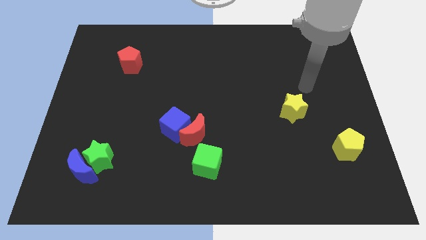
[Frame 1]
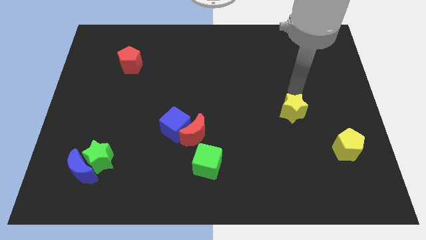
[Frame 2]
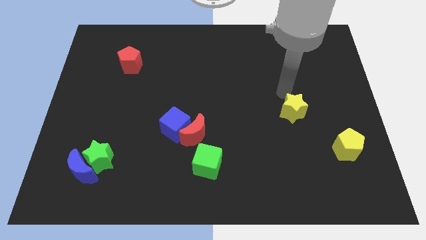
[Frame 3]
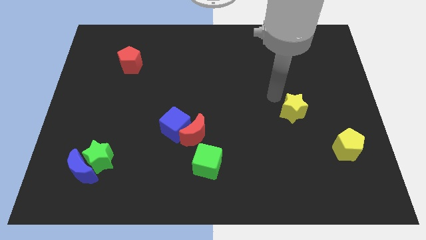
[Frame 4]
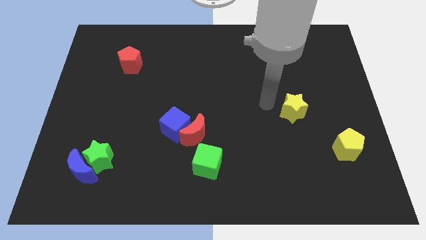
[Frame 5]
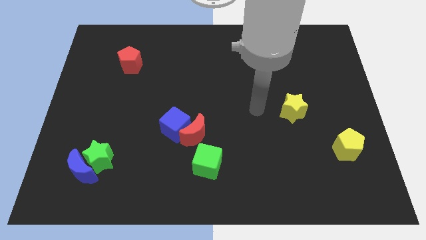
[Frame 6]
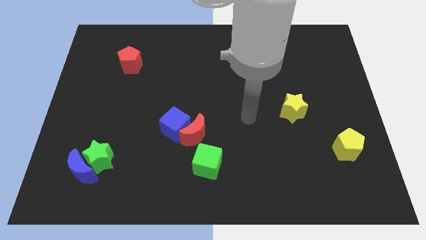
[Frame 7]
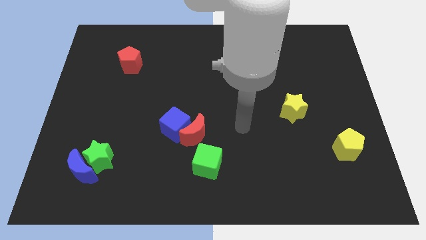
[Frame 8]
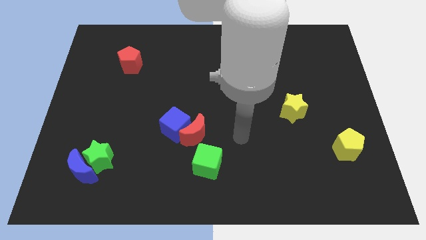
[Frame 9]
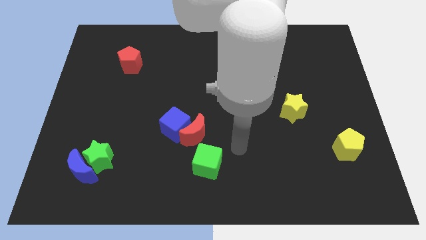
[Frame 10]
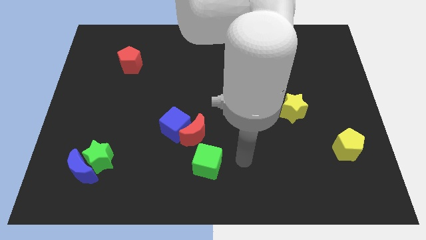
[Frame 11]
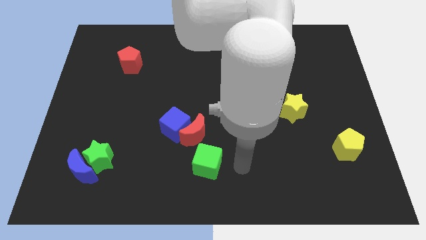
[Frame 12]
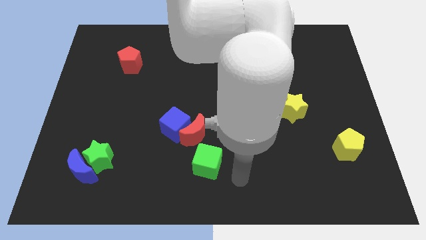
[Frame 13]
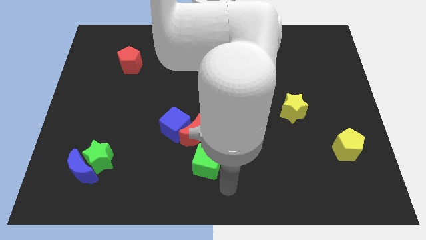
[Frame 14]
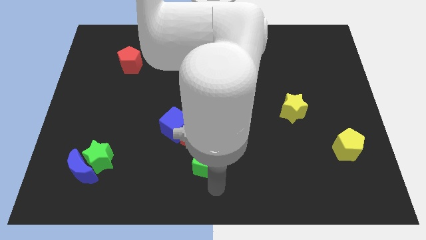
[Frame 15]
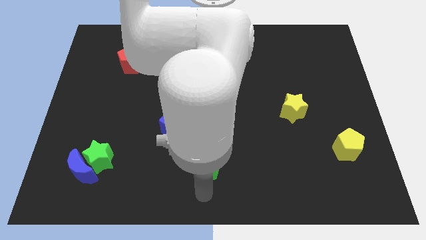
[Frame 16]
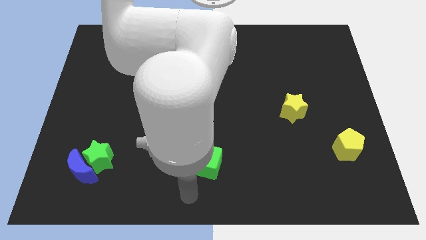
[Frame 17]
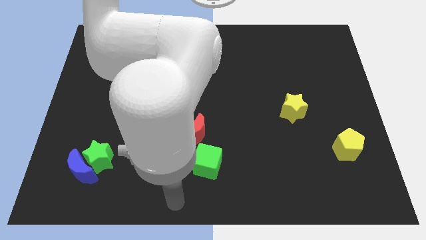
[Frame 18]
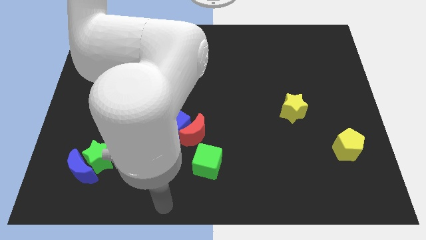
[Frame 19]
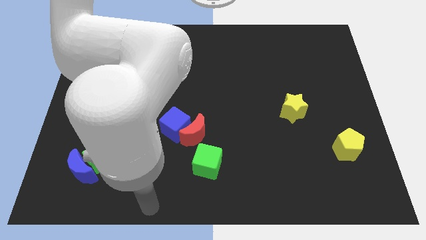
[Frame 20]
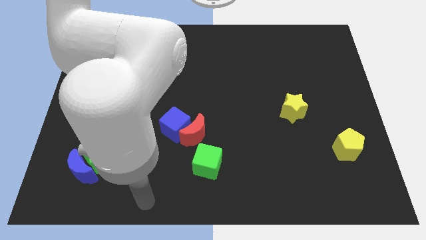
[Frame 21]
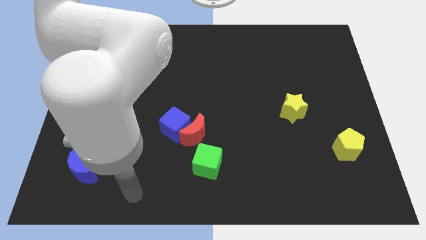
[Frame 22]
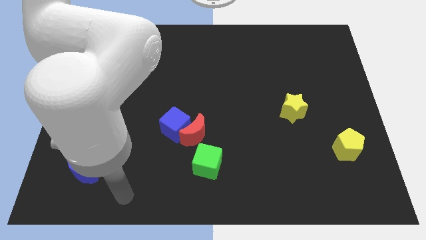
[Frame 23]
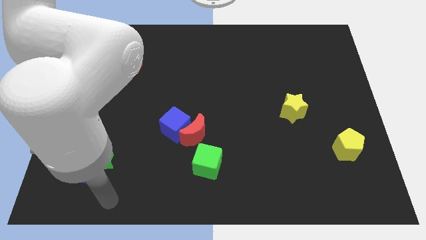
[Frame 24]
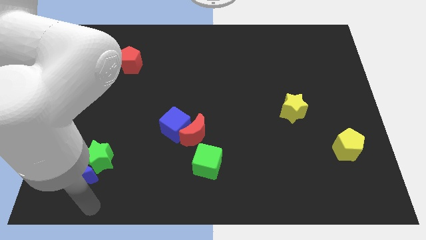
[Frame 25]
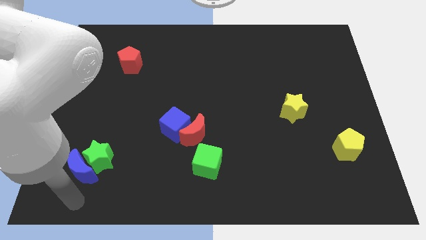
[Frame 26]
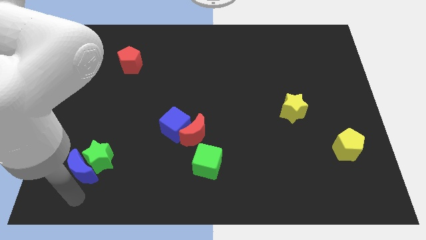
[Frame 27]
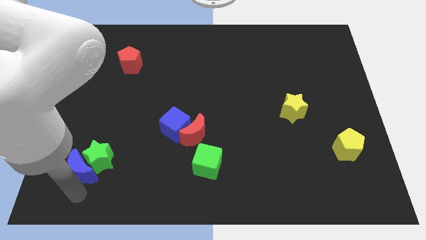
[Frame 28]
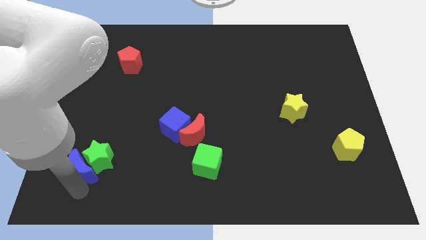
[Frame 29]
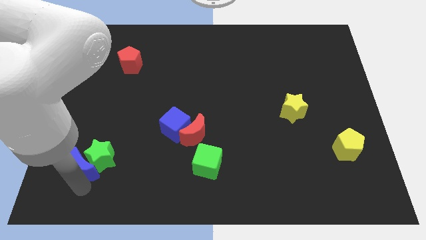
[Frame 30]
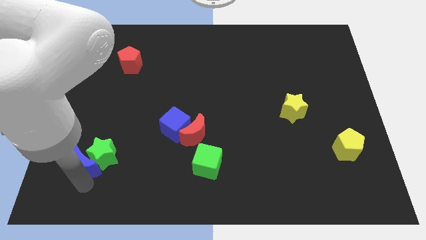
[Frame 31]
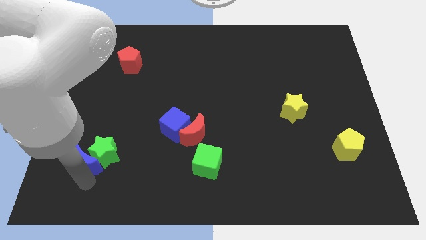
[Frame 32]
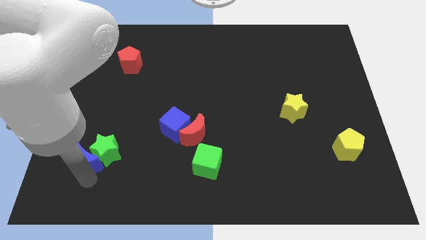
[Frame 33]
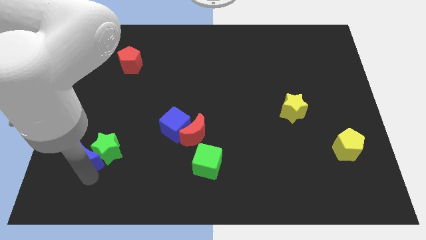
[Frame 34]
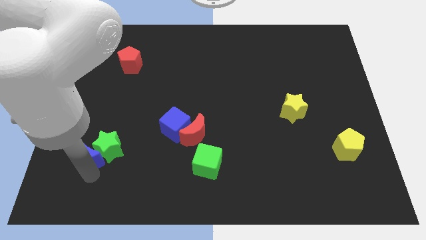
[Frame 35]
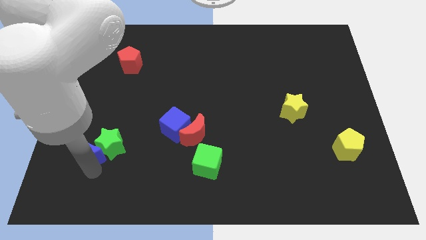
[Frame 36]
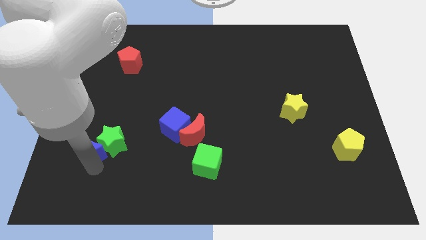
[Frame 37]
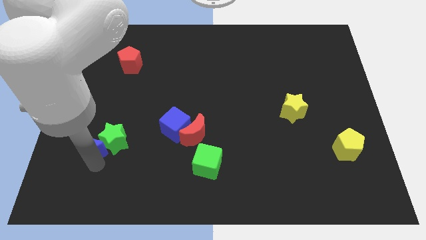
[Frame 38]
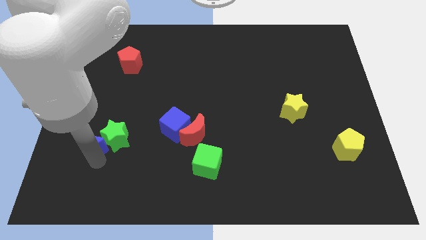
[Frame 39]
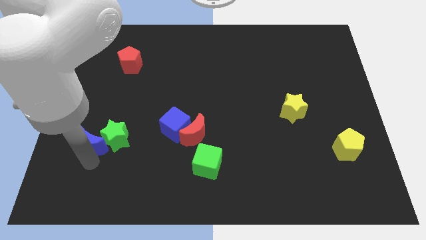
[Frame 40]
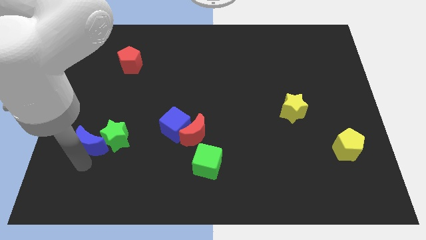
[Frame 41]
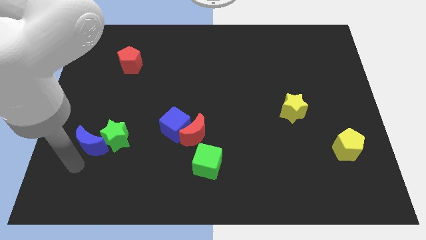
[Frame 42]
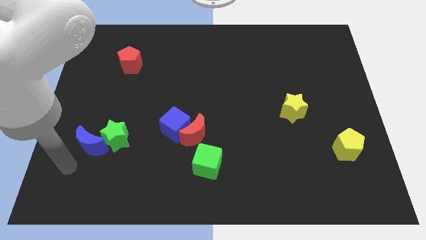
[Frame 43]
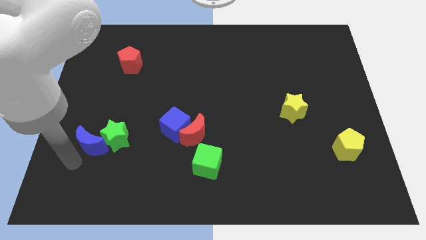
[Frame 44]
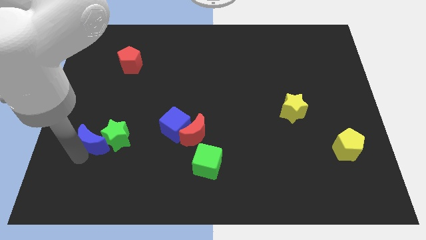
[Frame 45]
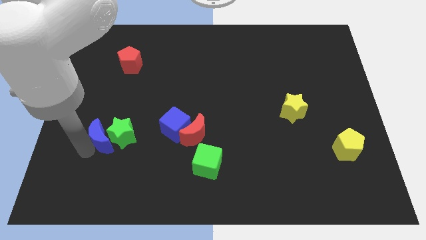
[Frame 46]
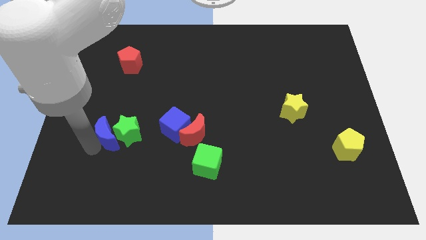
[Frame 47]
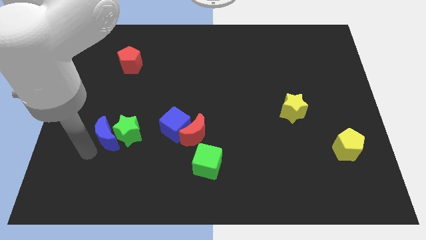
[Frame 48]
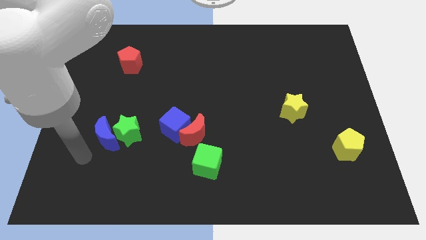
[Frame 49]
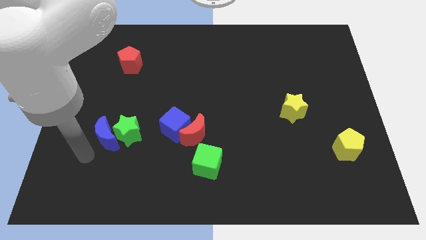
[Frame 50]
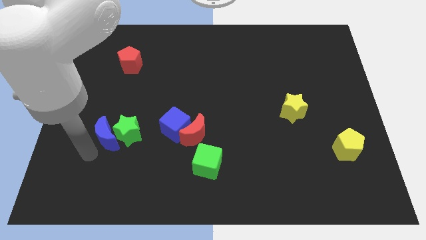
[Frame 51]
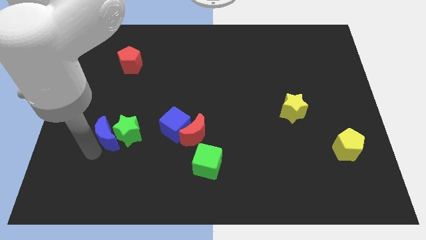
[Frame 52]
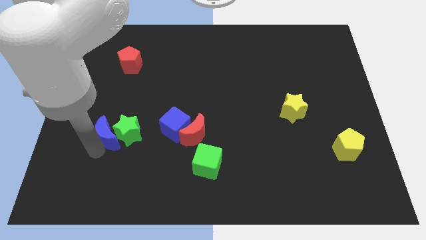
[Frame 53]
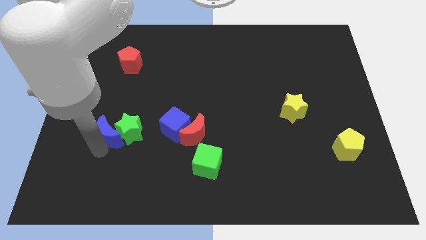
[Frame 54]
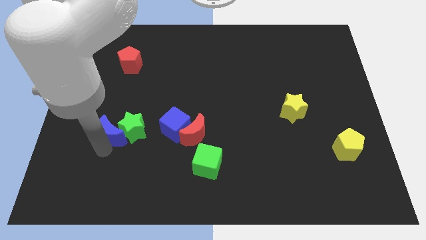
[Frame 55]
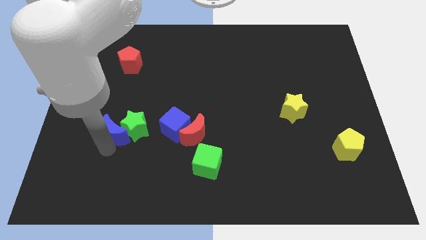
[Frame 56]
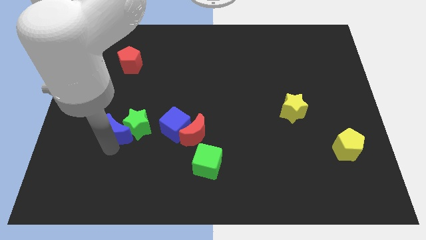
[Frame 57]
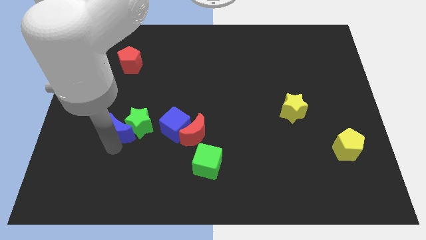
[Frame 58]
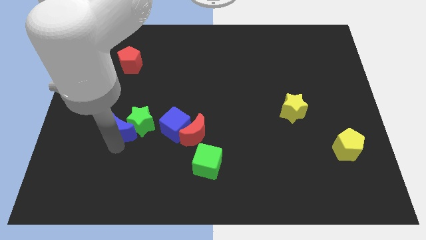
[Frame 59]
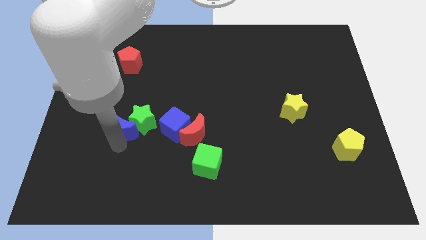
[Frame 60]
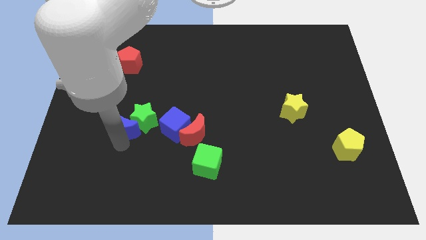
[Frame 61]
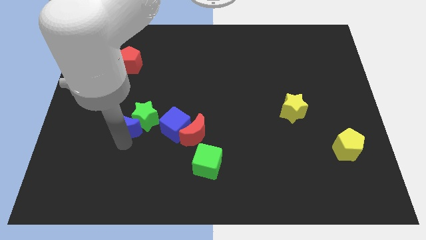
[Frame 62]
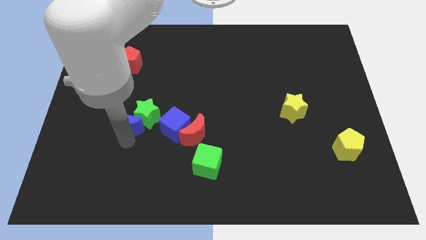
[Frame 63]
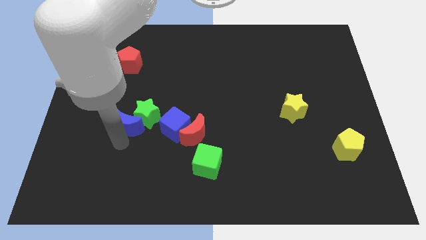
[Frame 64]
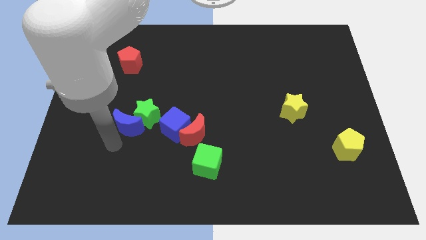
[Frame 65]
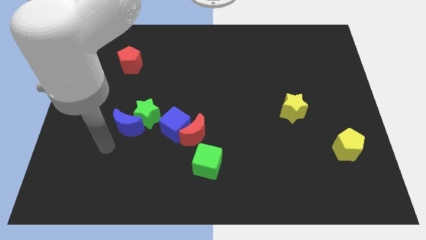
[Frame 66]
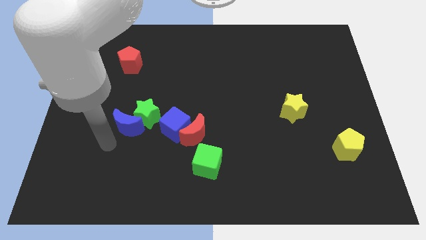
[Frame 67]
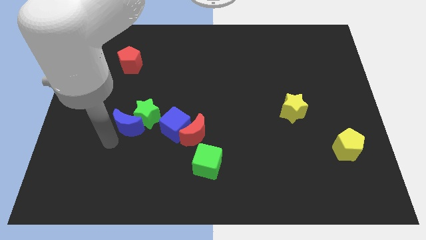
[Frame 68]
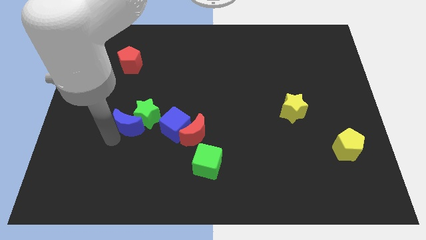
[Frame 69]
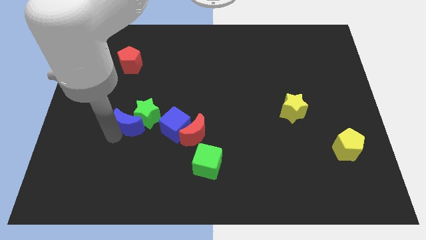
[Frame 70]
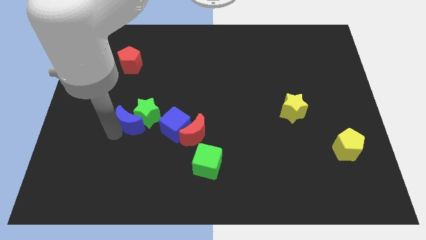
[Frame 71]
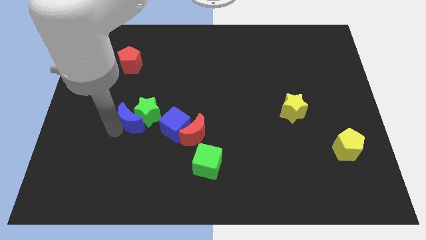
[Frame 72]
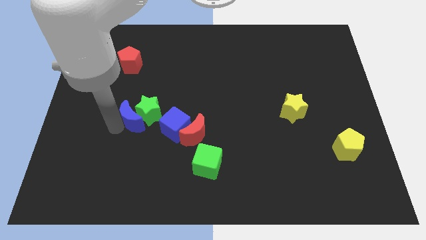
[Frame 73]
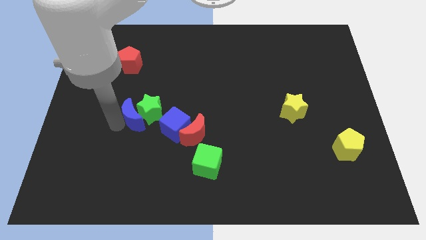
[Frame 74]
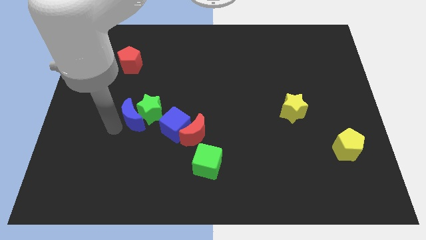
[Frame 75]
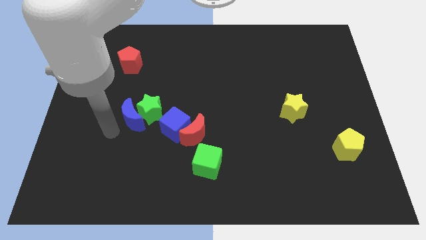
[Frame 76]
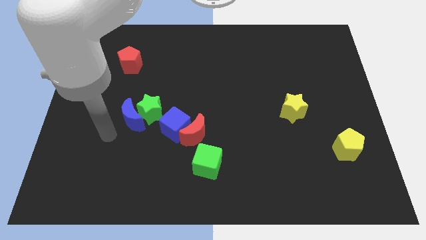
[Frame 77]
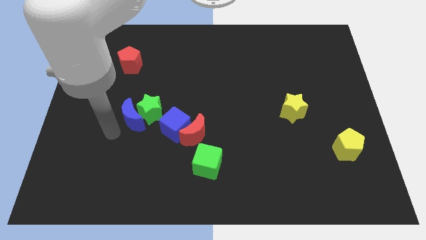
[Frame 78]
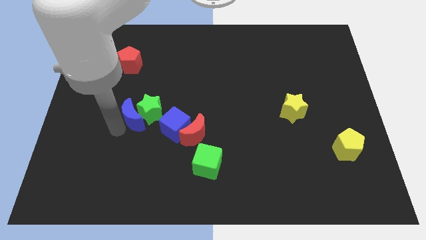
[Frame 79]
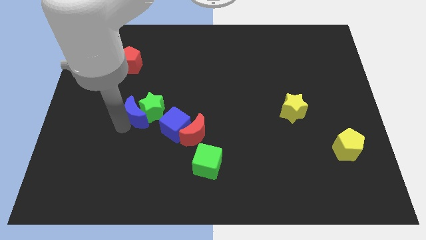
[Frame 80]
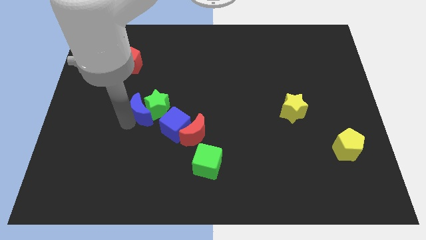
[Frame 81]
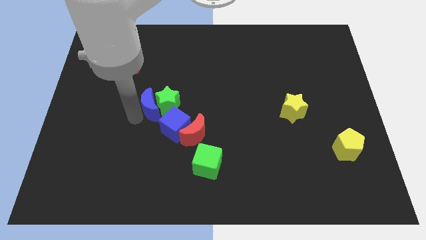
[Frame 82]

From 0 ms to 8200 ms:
move the blue moon diagonally upwards and to the right

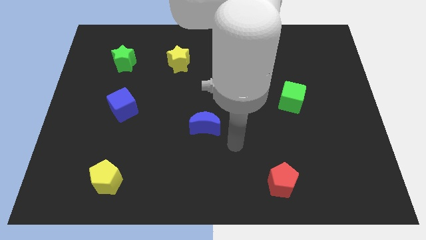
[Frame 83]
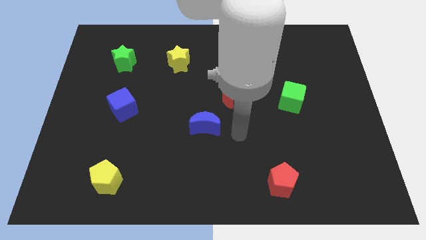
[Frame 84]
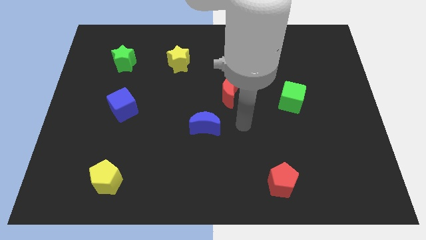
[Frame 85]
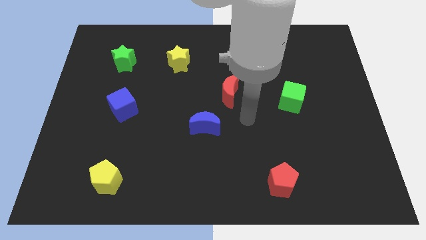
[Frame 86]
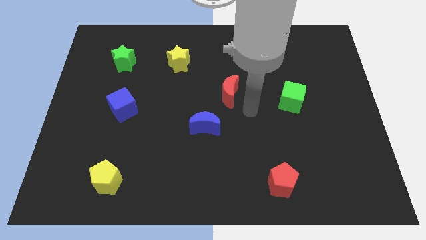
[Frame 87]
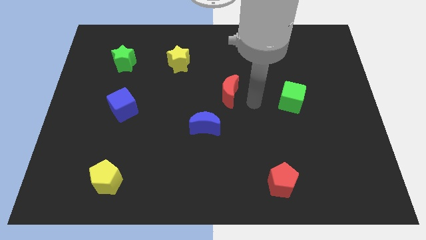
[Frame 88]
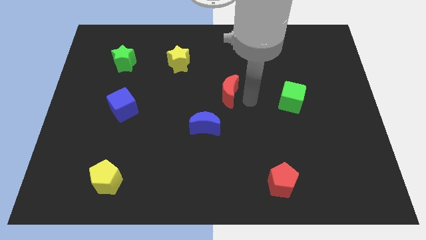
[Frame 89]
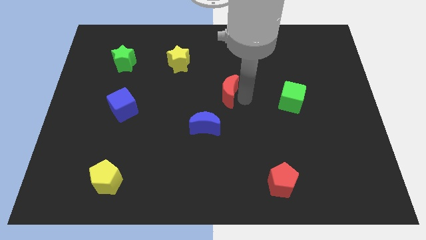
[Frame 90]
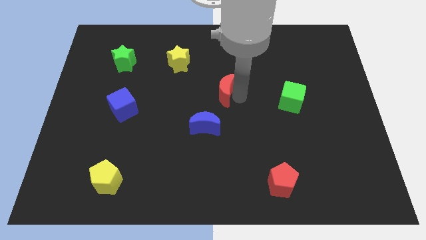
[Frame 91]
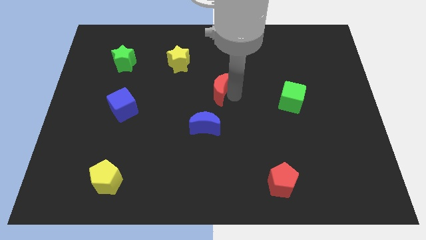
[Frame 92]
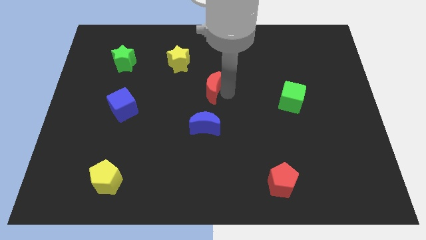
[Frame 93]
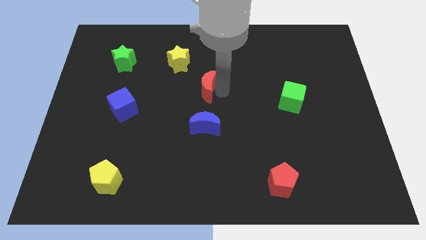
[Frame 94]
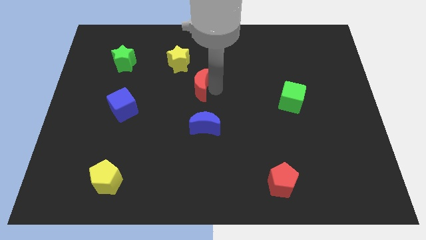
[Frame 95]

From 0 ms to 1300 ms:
slide the red moon a bit to the left
